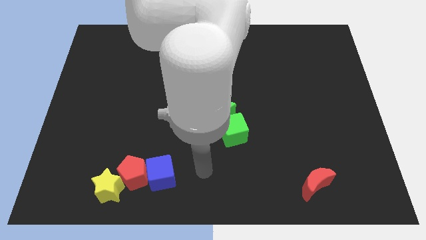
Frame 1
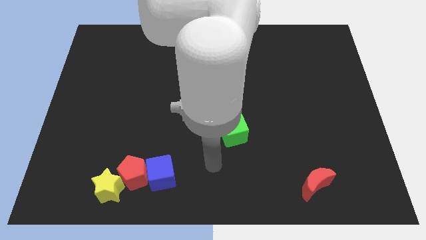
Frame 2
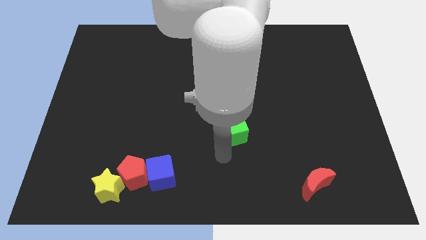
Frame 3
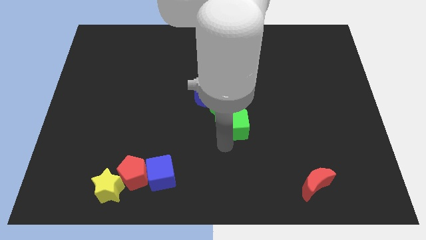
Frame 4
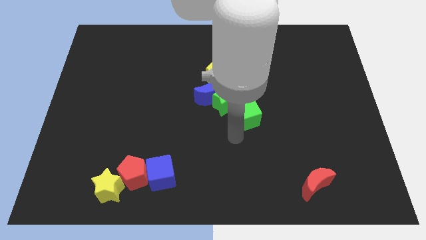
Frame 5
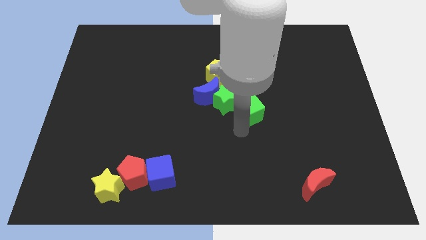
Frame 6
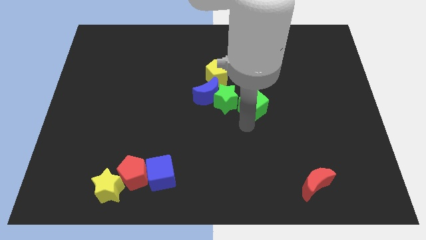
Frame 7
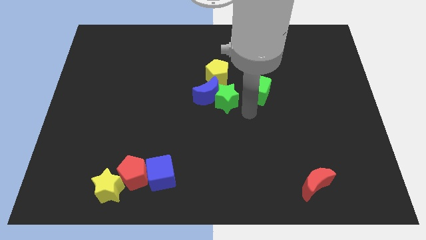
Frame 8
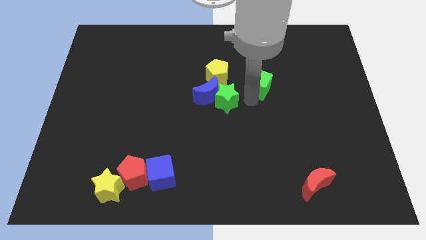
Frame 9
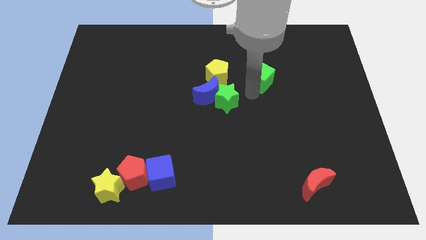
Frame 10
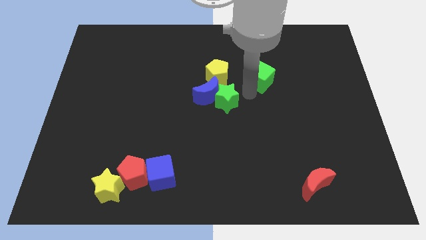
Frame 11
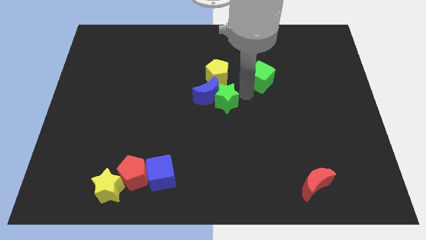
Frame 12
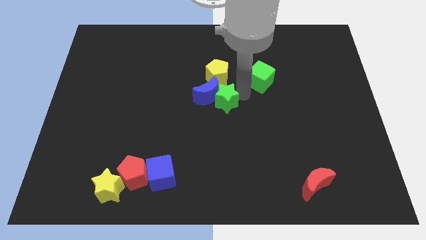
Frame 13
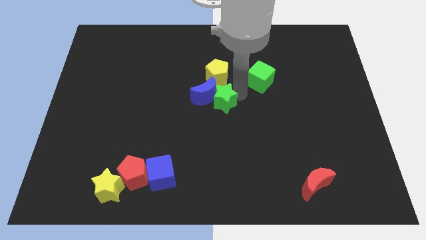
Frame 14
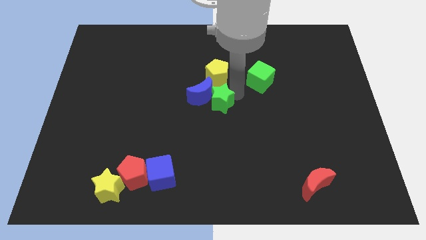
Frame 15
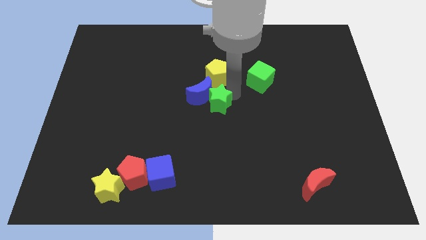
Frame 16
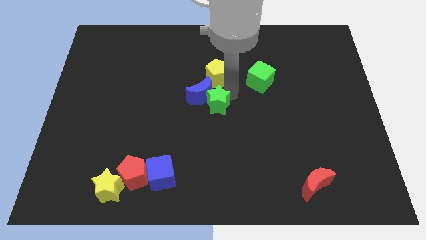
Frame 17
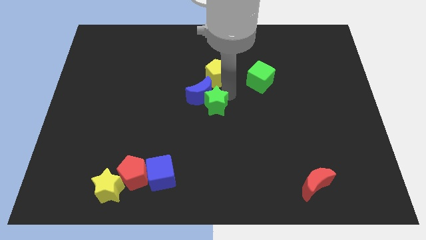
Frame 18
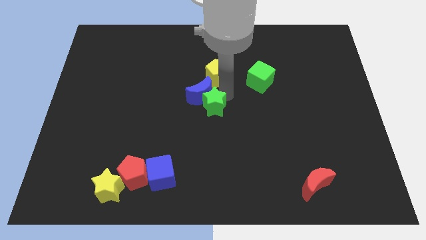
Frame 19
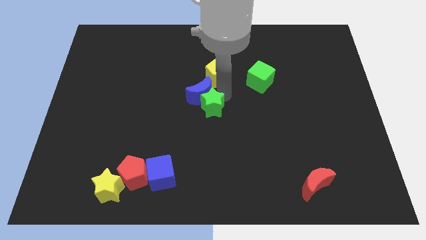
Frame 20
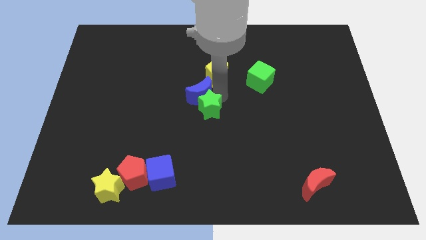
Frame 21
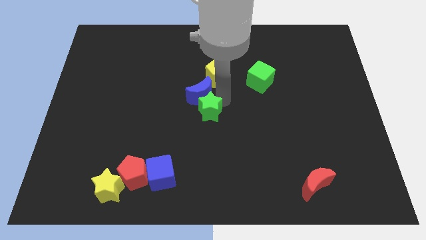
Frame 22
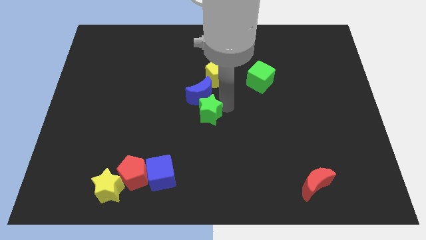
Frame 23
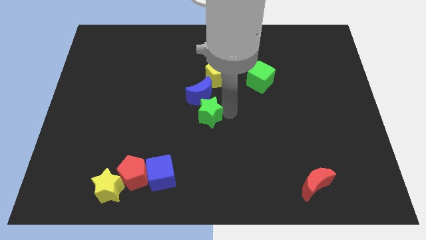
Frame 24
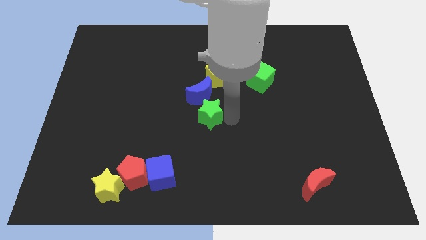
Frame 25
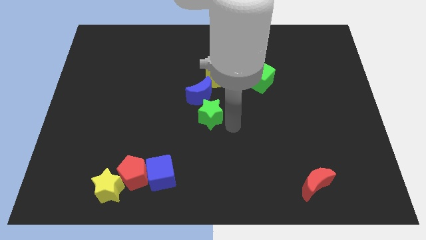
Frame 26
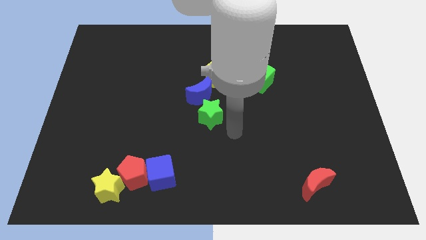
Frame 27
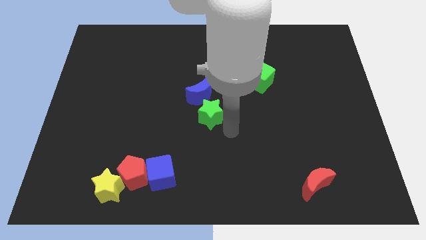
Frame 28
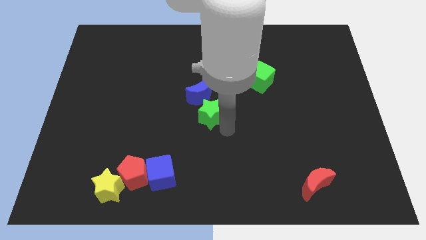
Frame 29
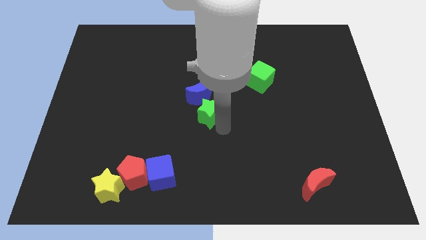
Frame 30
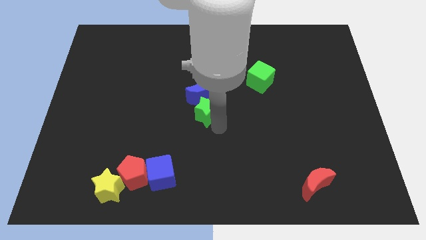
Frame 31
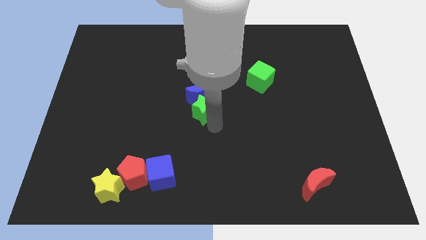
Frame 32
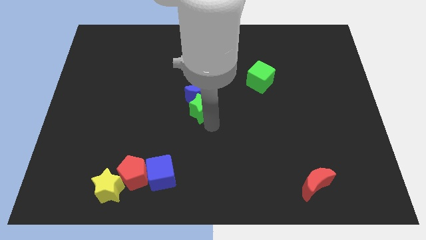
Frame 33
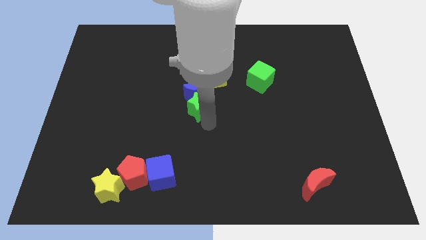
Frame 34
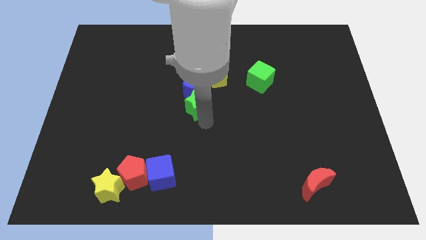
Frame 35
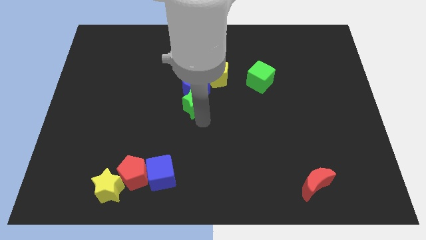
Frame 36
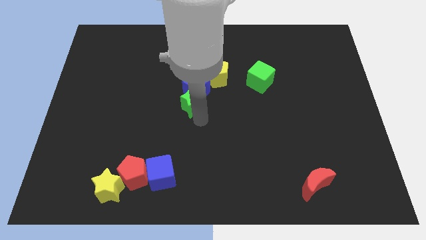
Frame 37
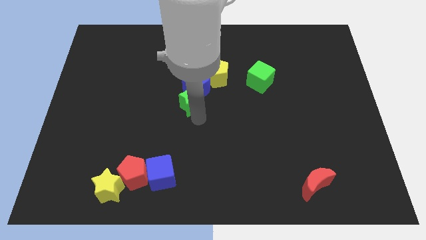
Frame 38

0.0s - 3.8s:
slide the green star up and to the left diagonally a little

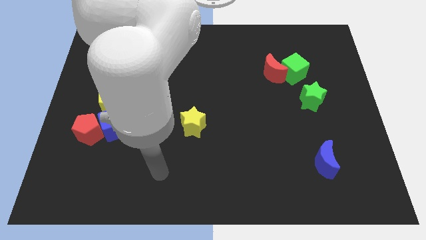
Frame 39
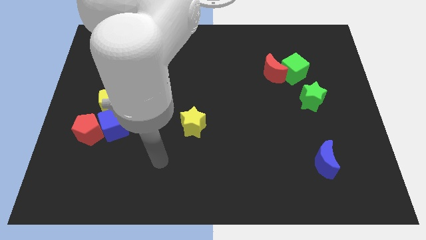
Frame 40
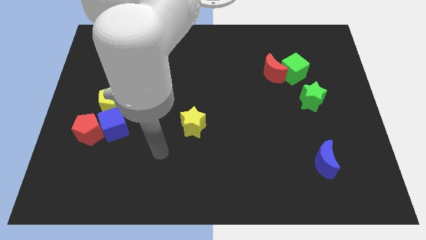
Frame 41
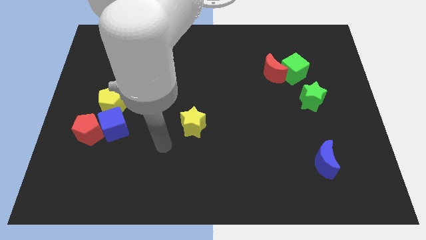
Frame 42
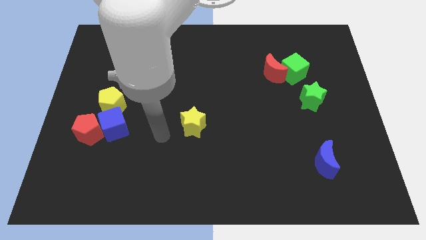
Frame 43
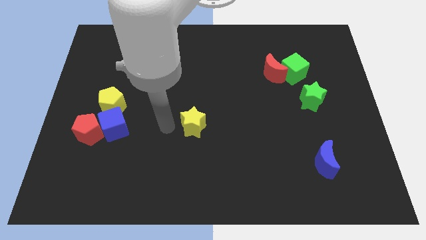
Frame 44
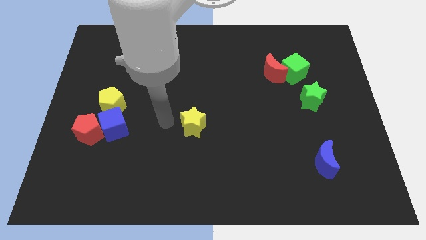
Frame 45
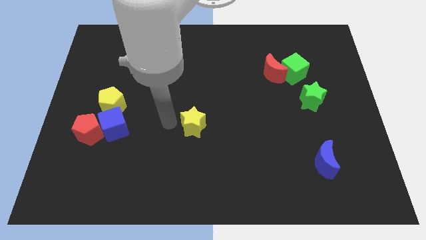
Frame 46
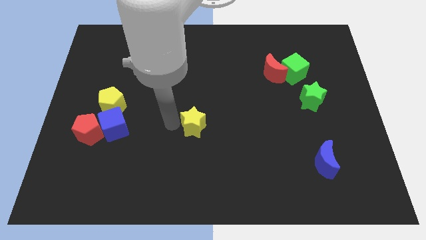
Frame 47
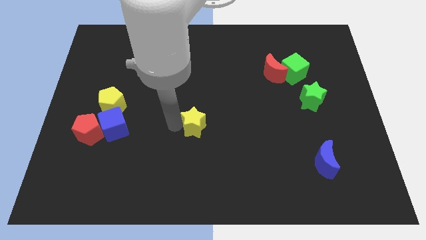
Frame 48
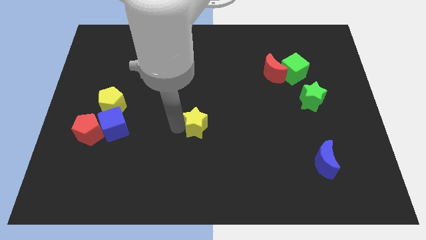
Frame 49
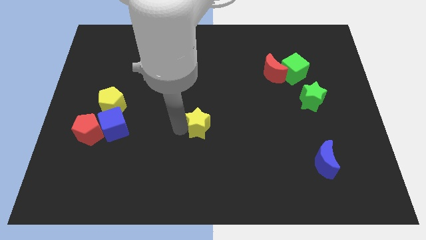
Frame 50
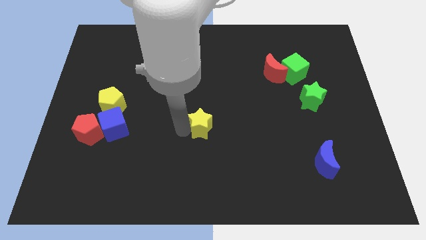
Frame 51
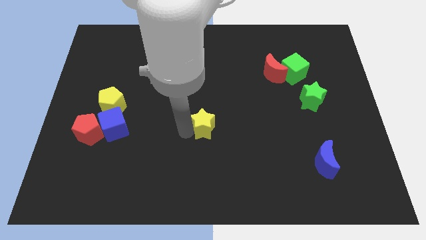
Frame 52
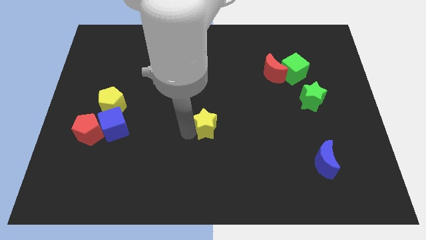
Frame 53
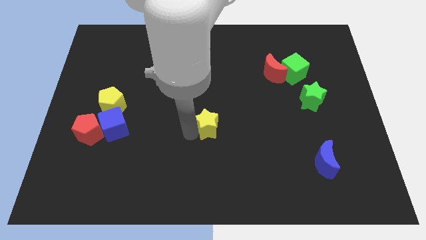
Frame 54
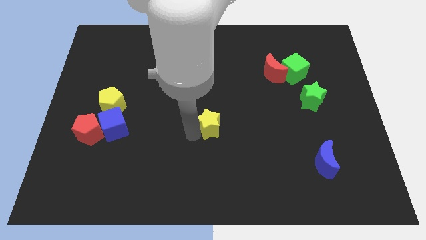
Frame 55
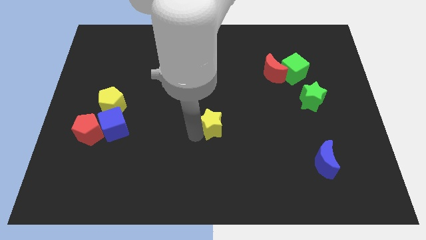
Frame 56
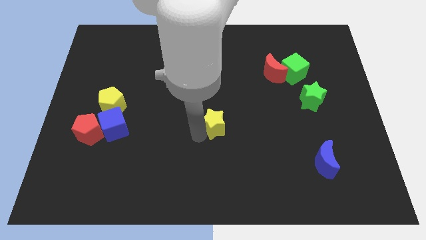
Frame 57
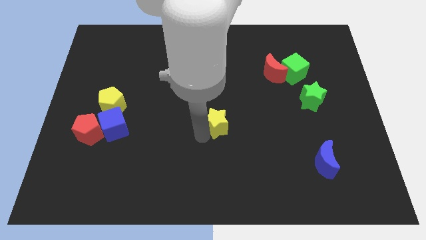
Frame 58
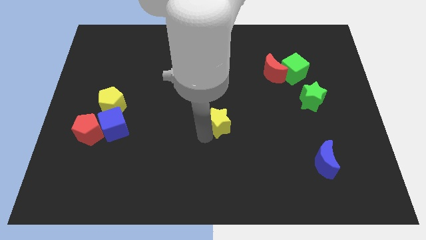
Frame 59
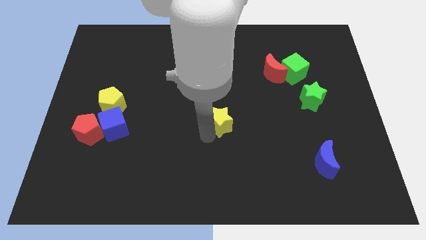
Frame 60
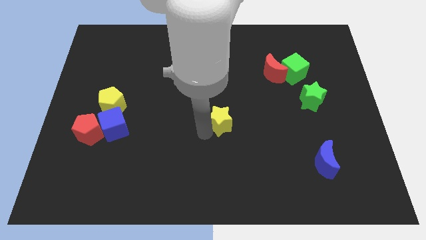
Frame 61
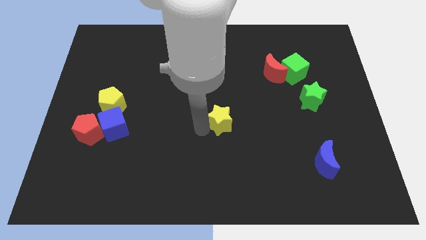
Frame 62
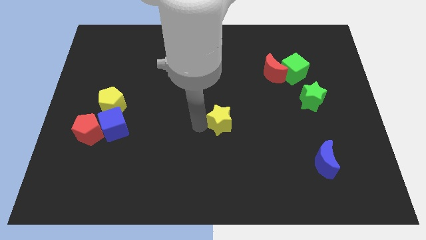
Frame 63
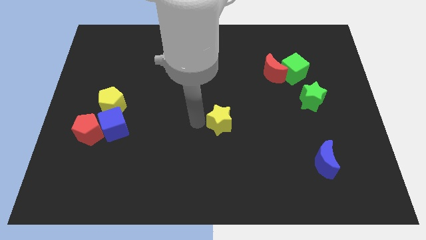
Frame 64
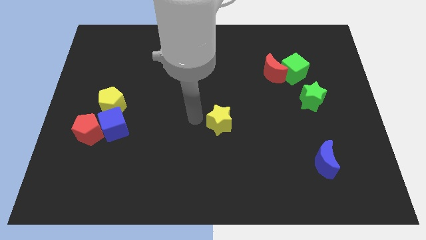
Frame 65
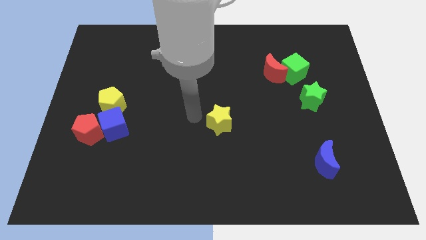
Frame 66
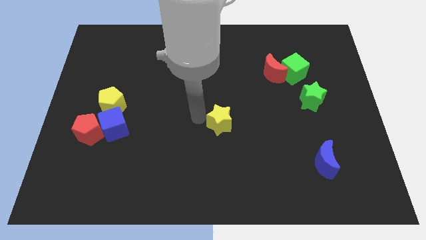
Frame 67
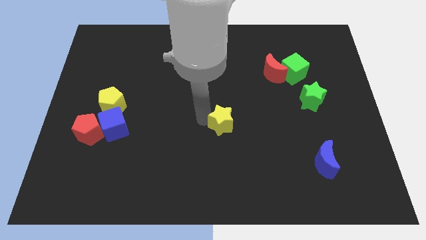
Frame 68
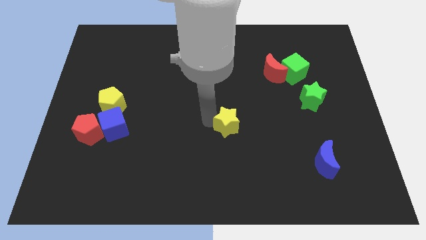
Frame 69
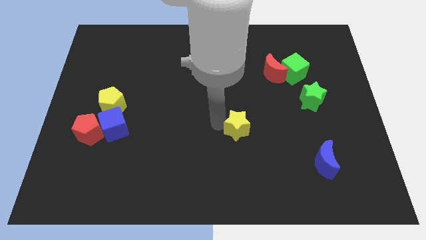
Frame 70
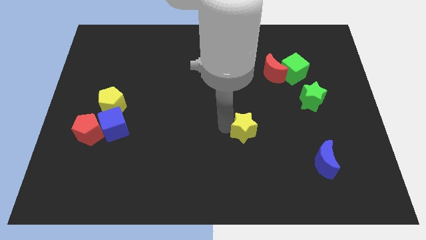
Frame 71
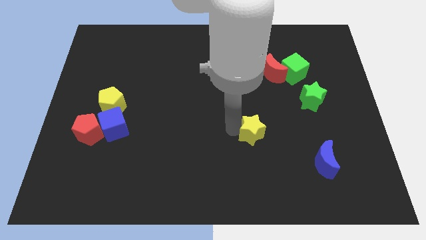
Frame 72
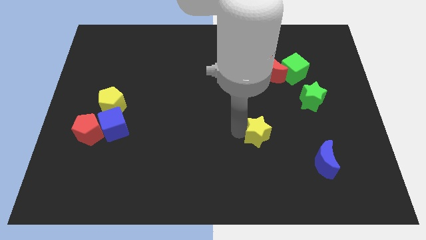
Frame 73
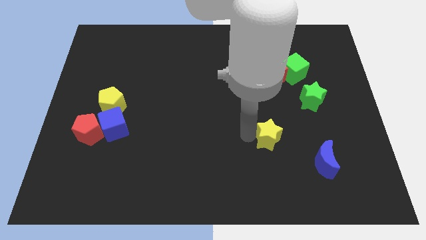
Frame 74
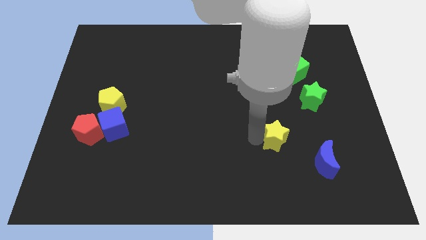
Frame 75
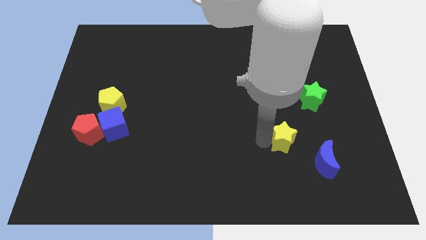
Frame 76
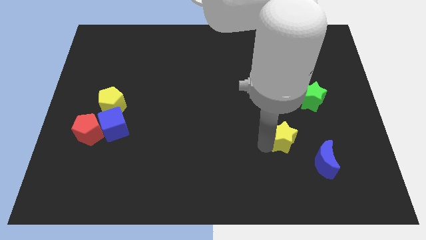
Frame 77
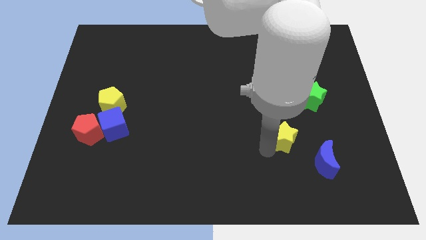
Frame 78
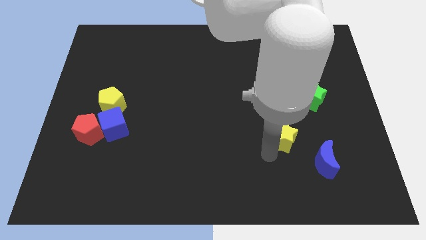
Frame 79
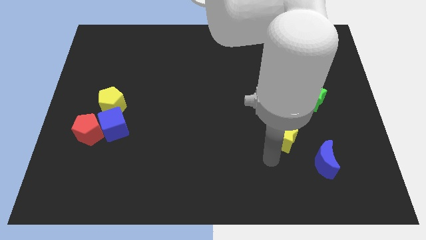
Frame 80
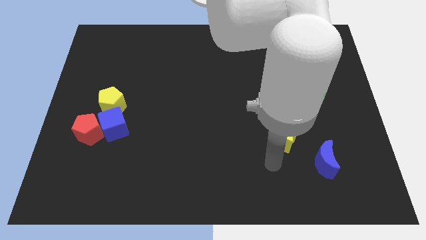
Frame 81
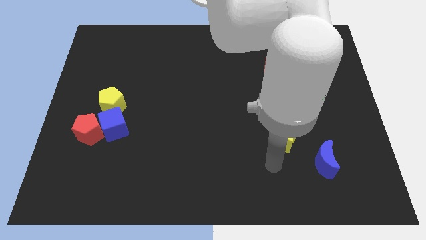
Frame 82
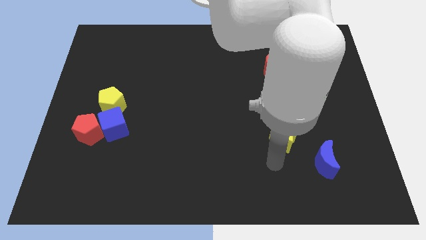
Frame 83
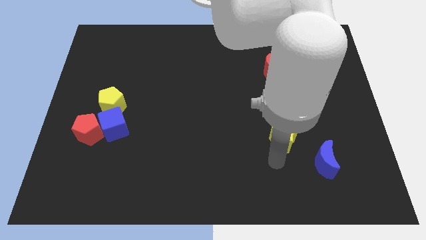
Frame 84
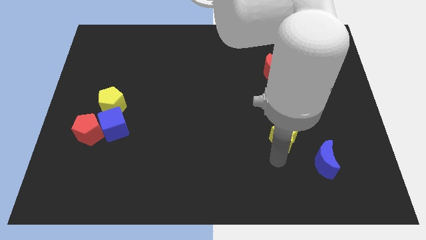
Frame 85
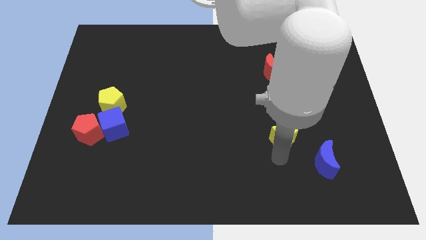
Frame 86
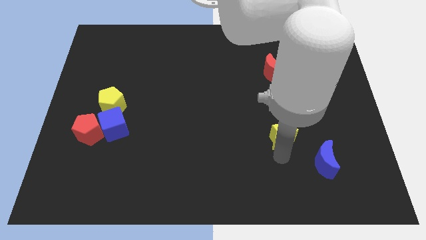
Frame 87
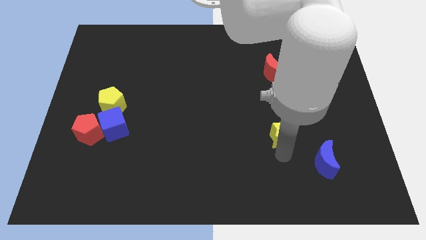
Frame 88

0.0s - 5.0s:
slide the yellow star to the right
